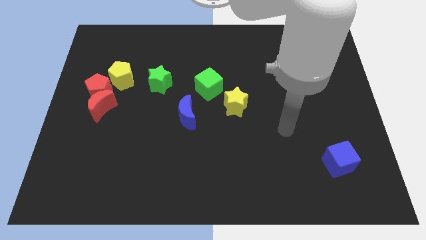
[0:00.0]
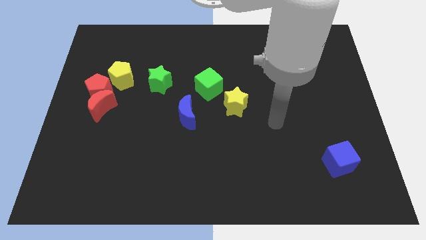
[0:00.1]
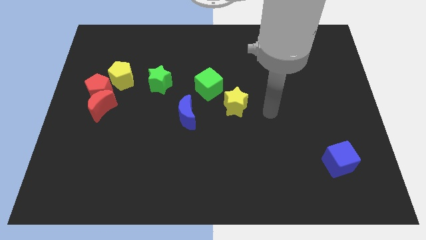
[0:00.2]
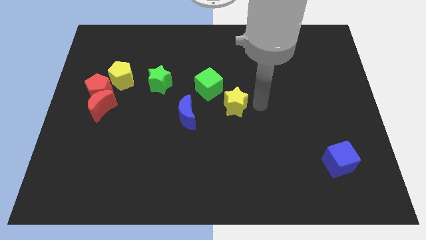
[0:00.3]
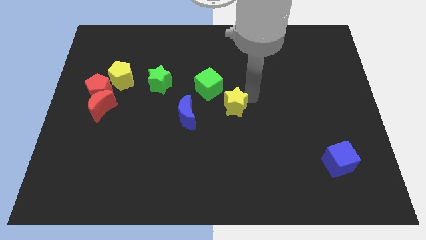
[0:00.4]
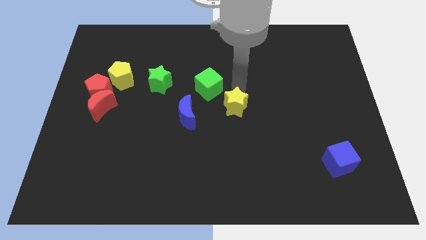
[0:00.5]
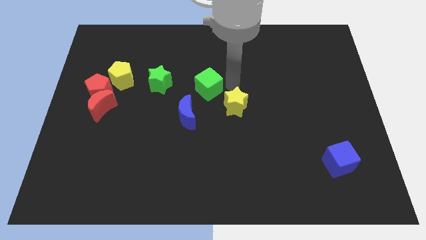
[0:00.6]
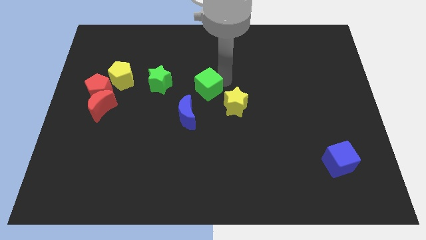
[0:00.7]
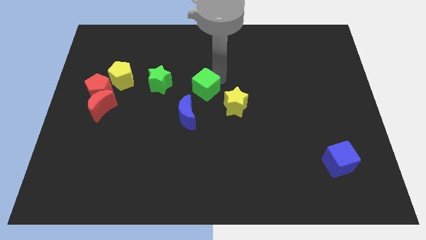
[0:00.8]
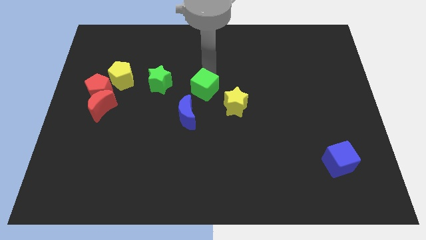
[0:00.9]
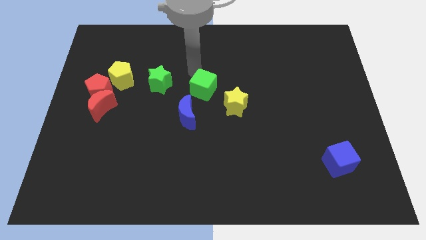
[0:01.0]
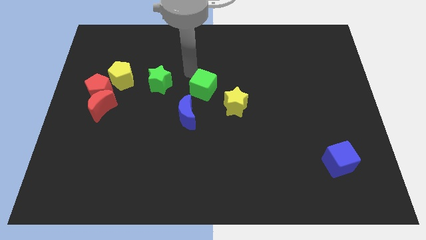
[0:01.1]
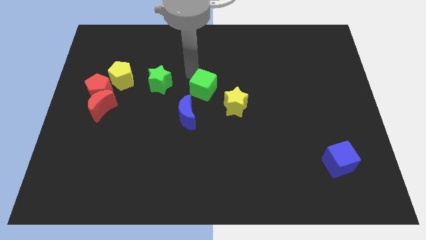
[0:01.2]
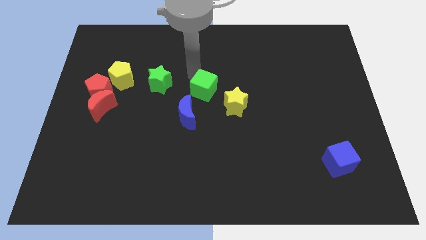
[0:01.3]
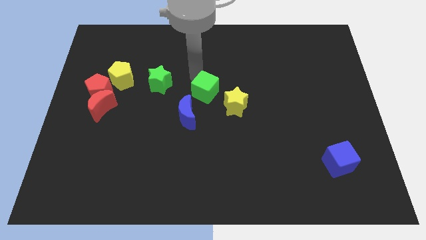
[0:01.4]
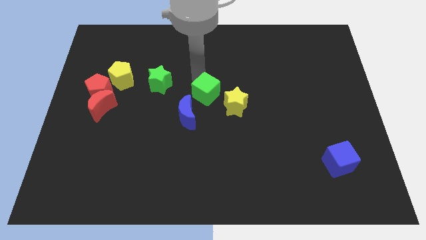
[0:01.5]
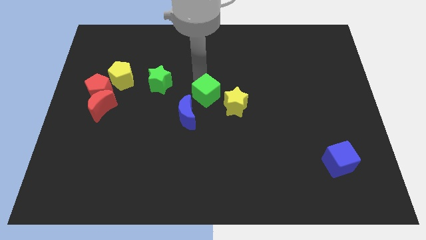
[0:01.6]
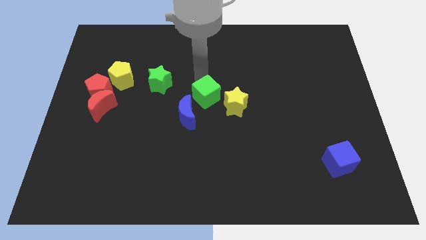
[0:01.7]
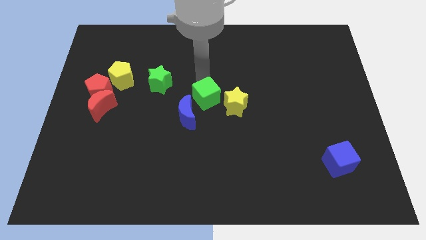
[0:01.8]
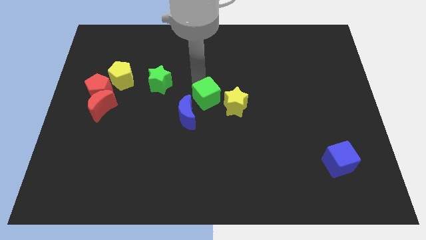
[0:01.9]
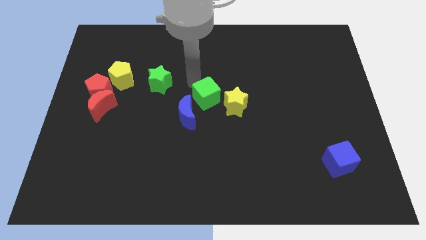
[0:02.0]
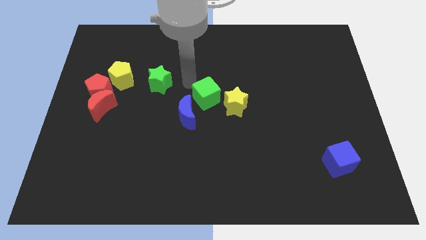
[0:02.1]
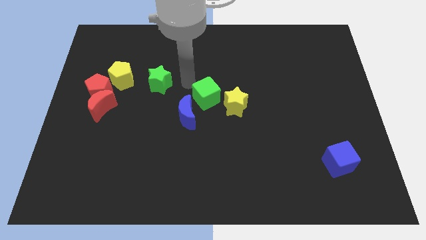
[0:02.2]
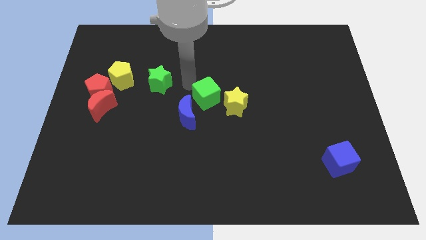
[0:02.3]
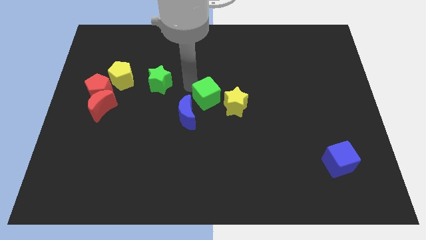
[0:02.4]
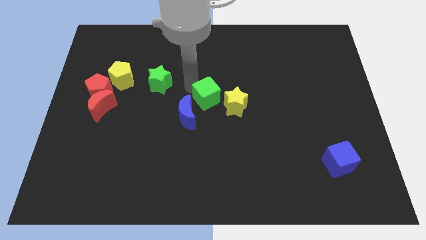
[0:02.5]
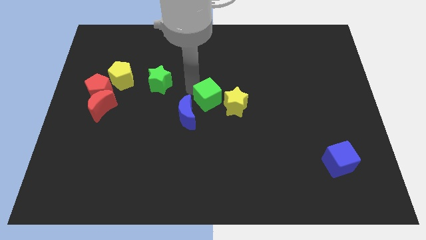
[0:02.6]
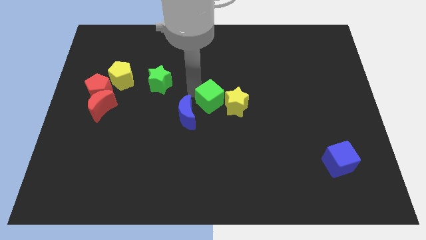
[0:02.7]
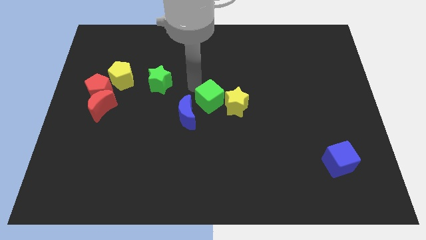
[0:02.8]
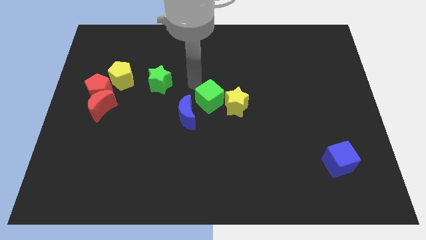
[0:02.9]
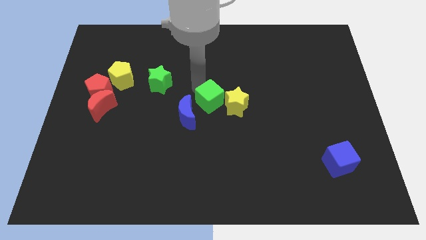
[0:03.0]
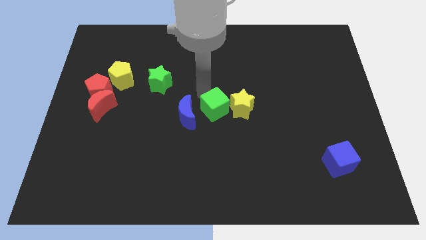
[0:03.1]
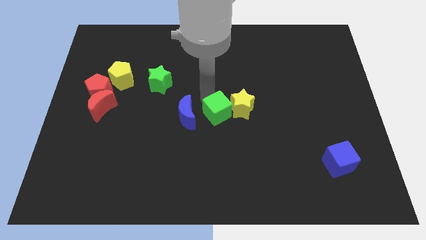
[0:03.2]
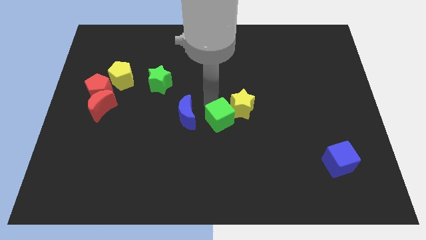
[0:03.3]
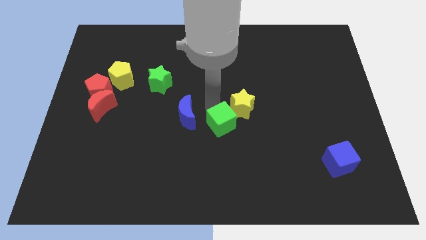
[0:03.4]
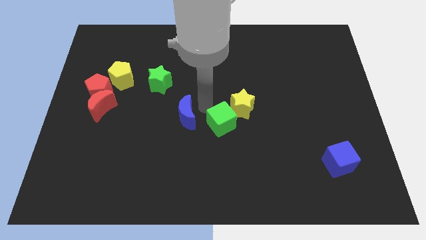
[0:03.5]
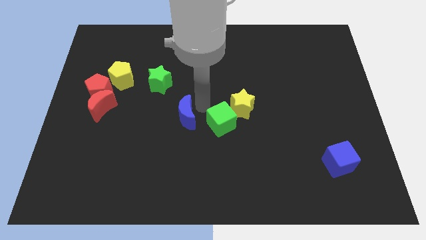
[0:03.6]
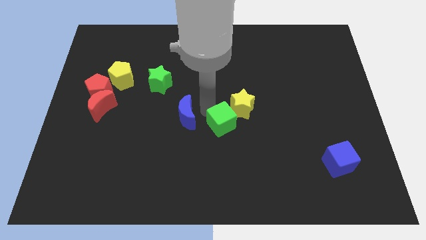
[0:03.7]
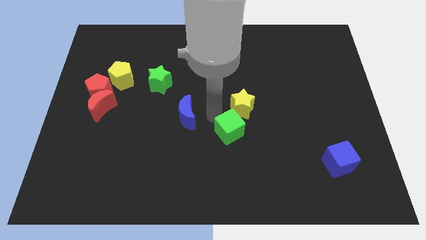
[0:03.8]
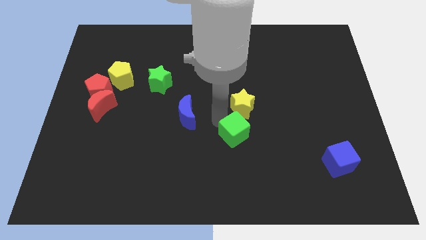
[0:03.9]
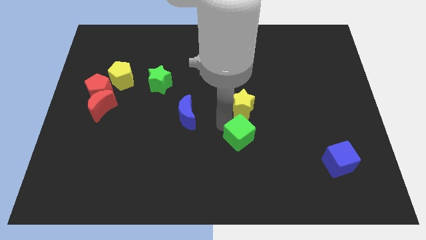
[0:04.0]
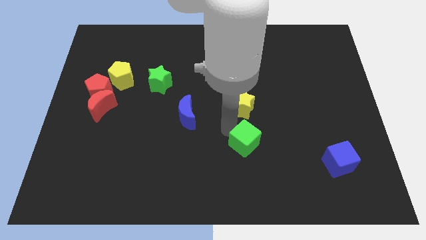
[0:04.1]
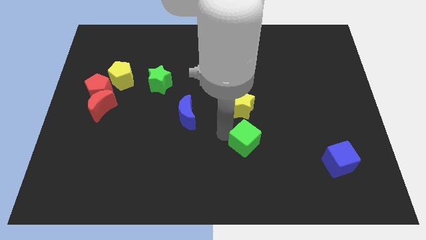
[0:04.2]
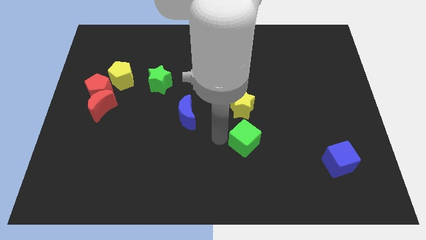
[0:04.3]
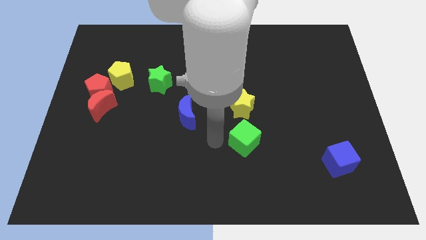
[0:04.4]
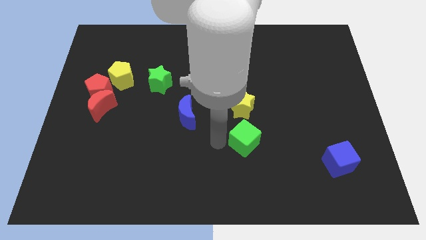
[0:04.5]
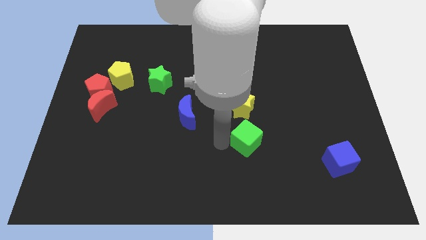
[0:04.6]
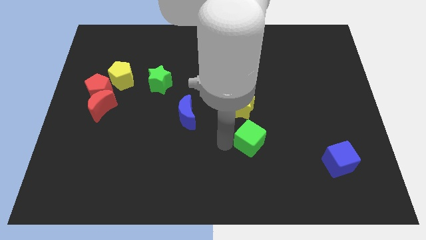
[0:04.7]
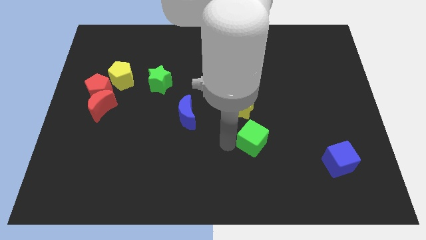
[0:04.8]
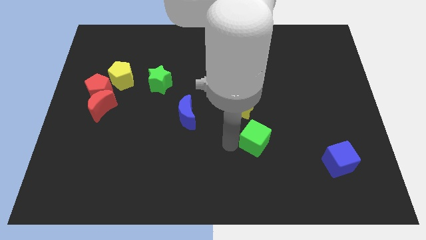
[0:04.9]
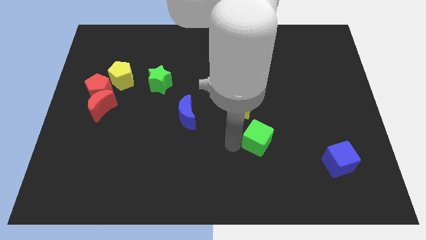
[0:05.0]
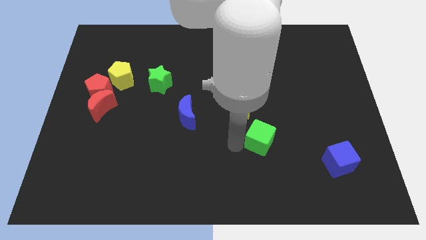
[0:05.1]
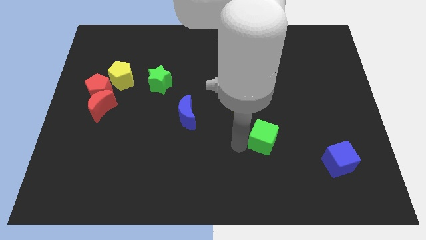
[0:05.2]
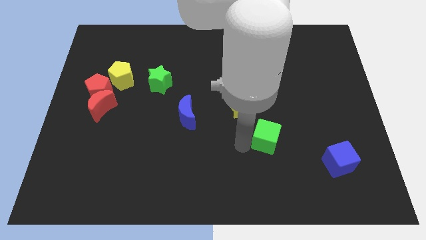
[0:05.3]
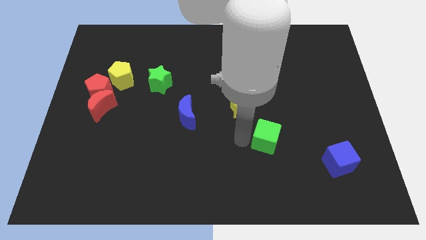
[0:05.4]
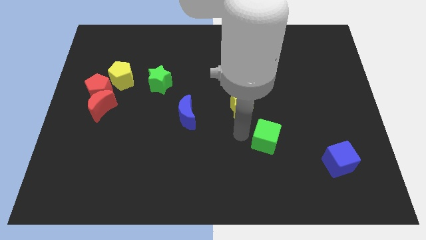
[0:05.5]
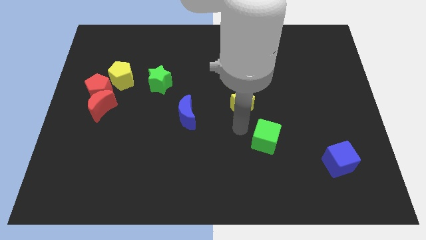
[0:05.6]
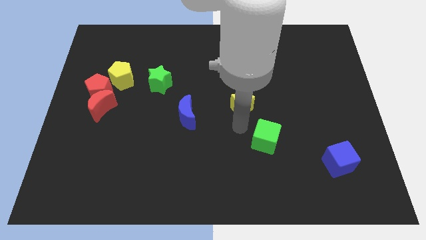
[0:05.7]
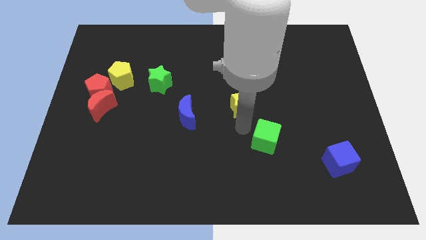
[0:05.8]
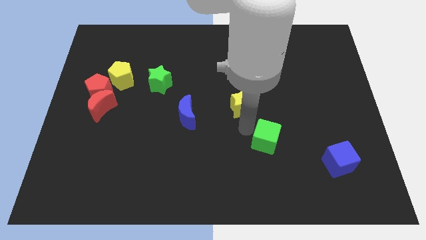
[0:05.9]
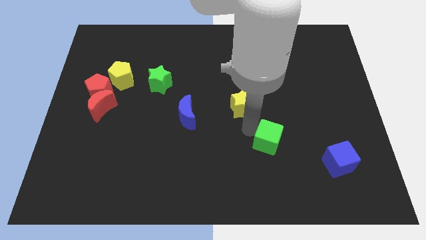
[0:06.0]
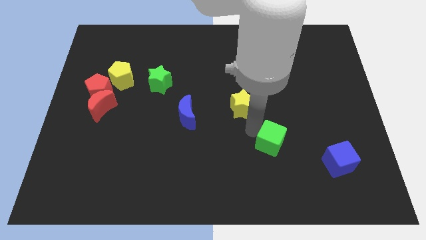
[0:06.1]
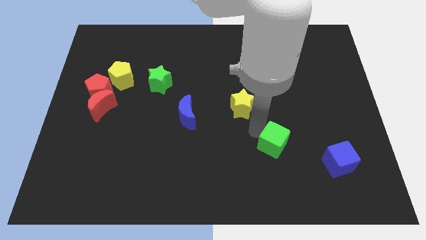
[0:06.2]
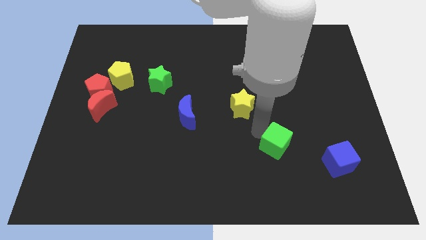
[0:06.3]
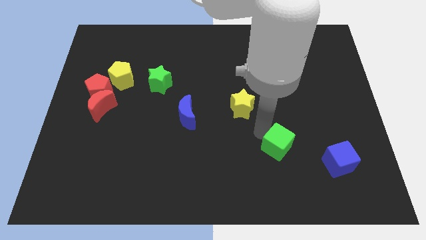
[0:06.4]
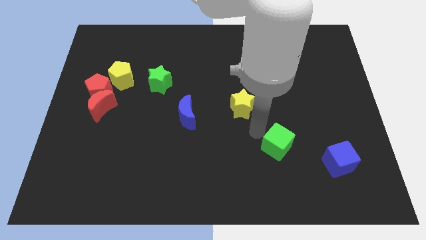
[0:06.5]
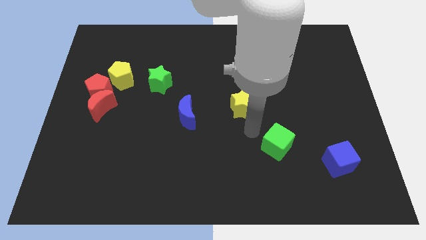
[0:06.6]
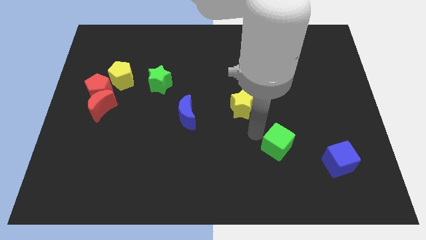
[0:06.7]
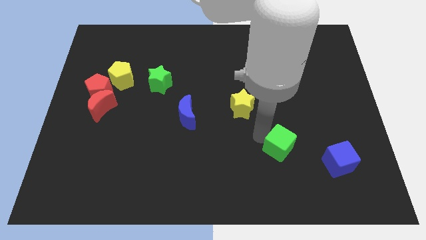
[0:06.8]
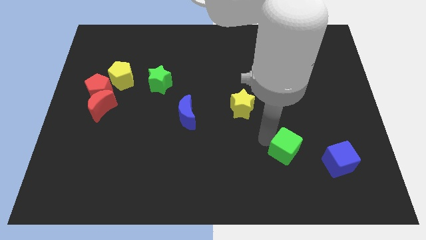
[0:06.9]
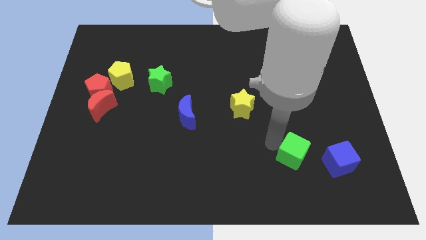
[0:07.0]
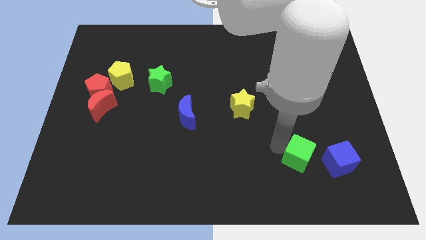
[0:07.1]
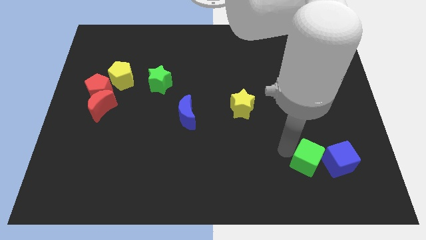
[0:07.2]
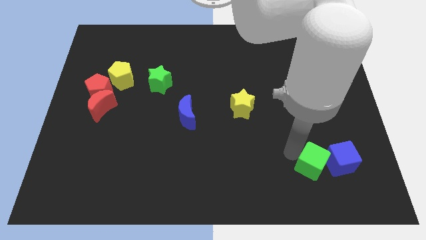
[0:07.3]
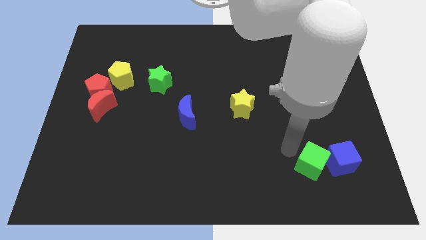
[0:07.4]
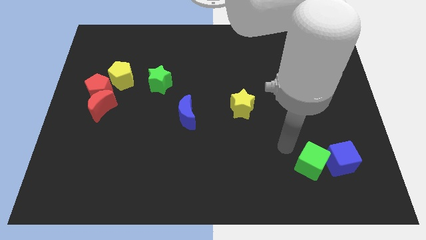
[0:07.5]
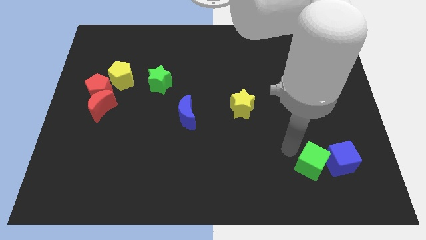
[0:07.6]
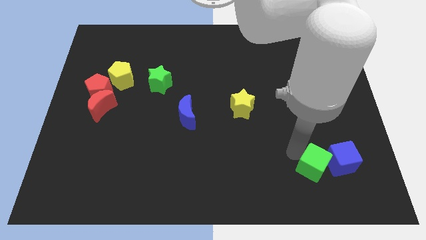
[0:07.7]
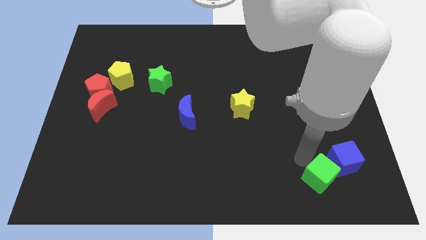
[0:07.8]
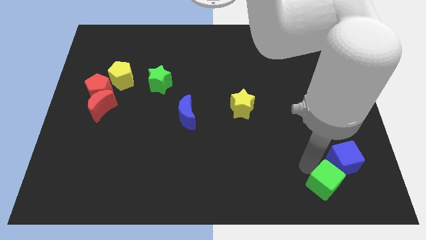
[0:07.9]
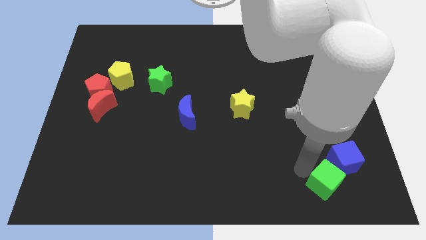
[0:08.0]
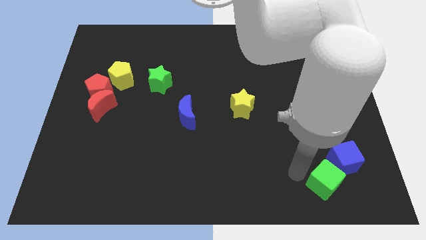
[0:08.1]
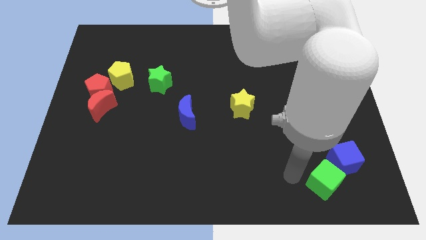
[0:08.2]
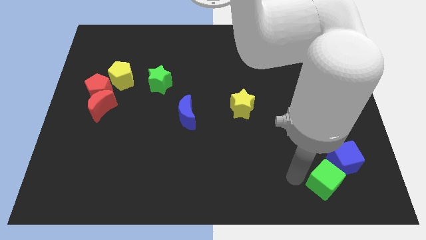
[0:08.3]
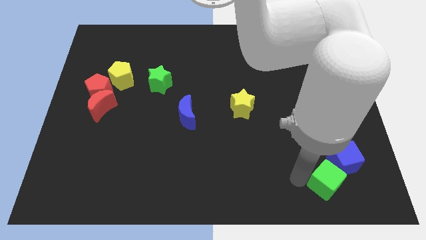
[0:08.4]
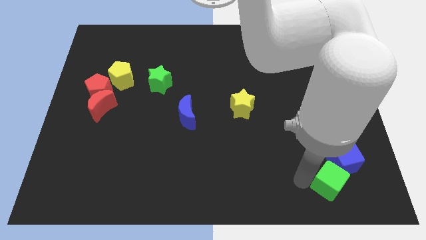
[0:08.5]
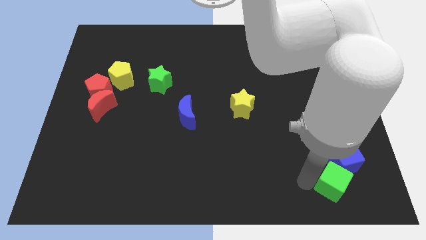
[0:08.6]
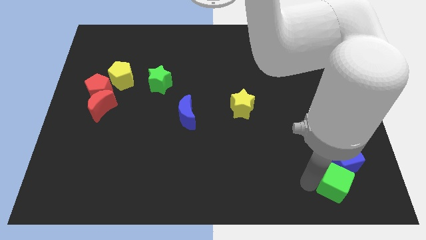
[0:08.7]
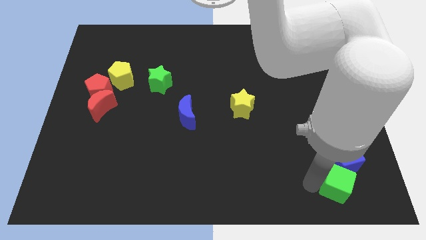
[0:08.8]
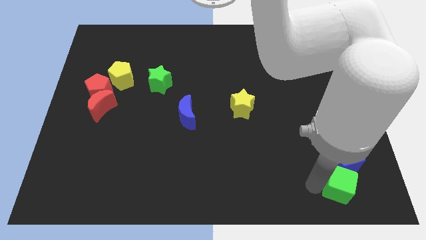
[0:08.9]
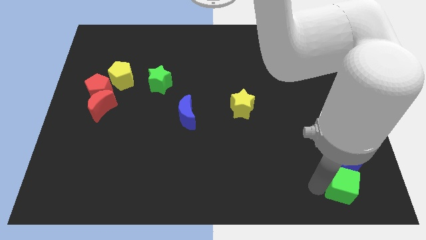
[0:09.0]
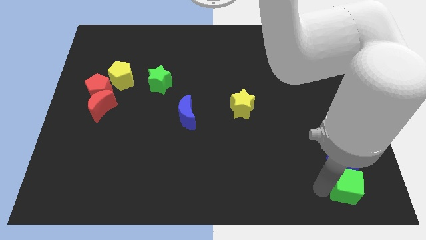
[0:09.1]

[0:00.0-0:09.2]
slide the green cube to the lower right corner
